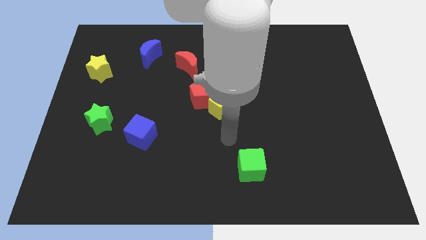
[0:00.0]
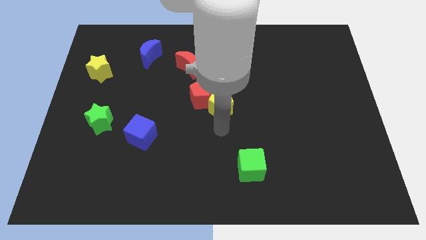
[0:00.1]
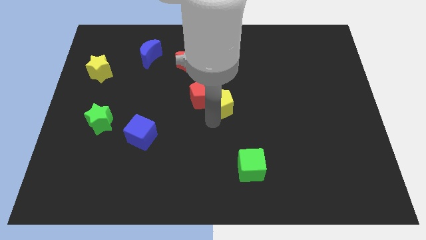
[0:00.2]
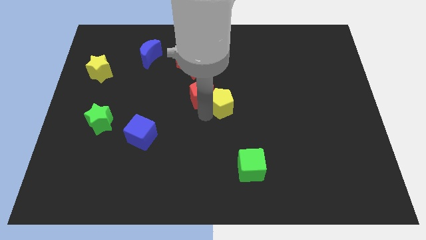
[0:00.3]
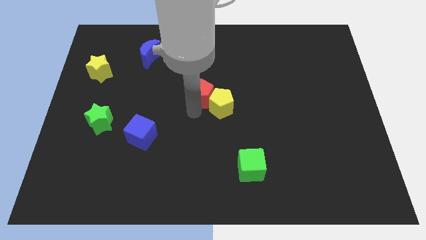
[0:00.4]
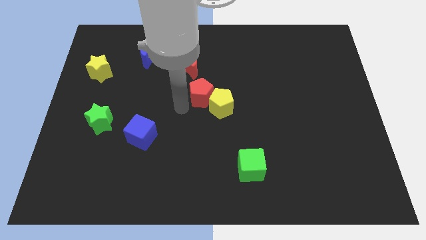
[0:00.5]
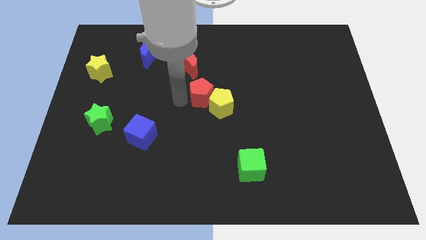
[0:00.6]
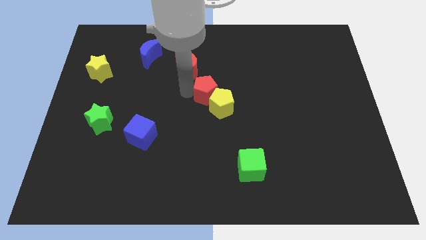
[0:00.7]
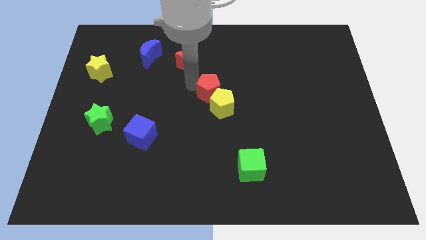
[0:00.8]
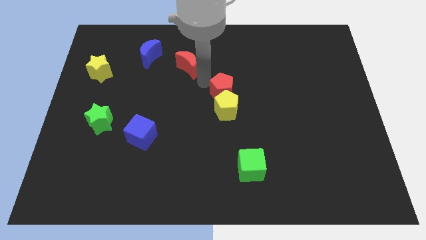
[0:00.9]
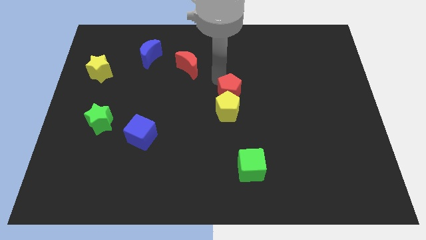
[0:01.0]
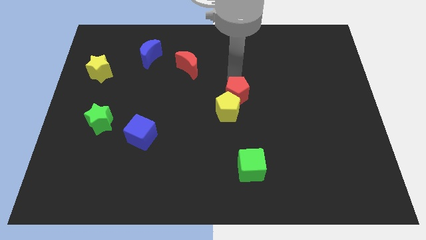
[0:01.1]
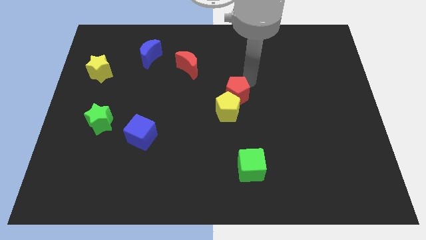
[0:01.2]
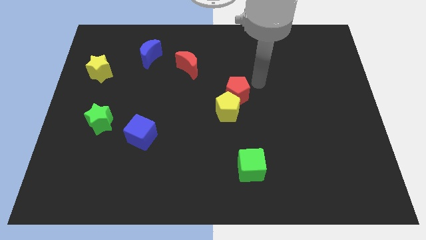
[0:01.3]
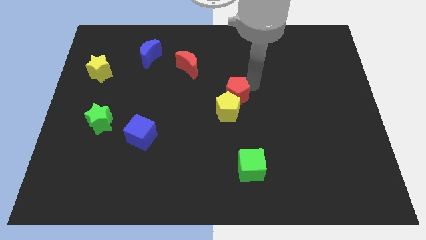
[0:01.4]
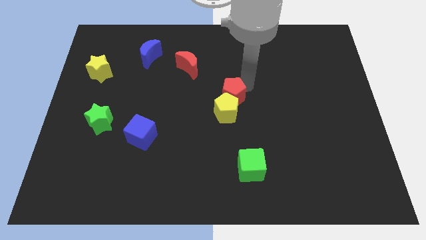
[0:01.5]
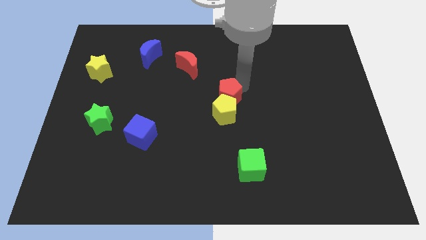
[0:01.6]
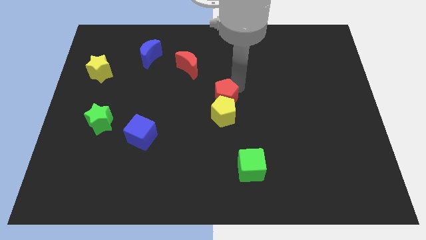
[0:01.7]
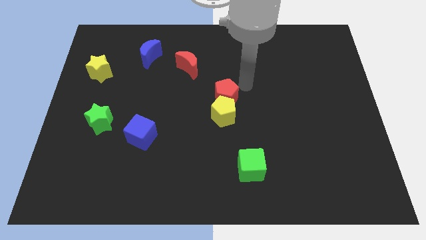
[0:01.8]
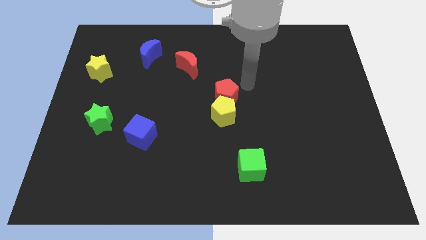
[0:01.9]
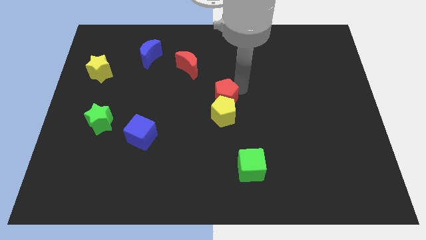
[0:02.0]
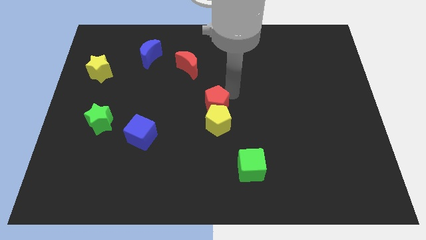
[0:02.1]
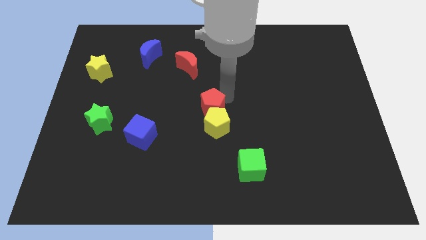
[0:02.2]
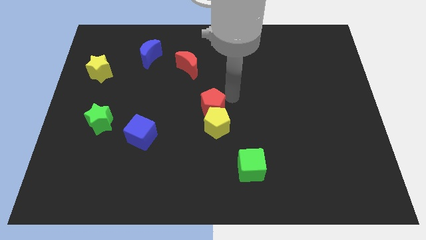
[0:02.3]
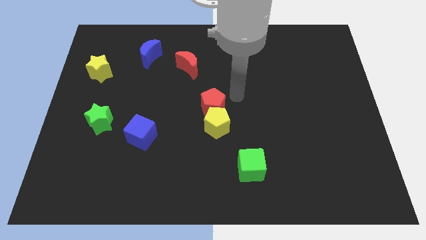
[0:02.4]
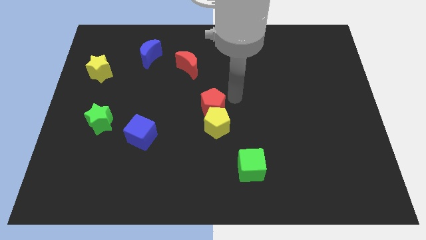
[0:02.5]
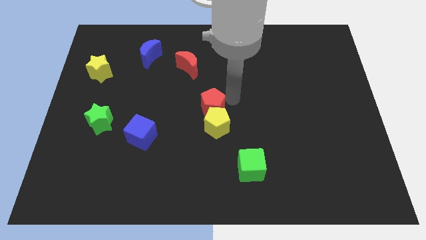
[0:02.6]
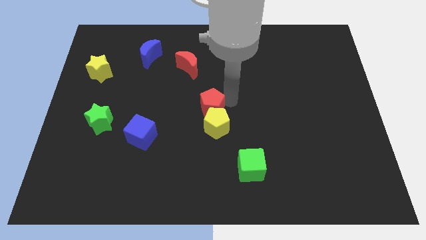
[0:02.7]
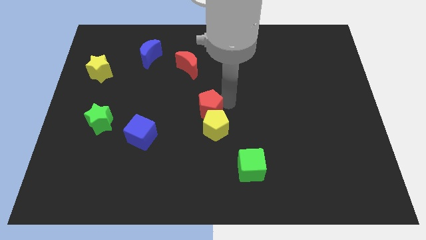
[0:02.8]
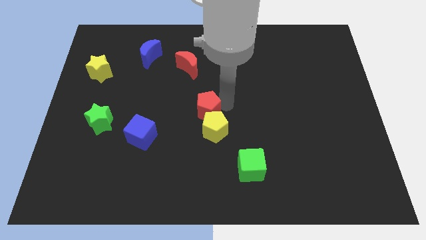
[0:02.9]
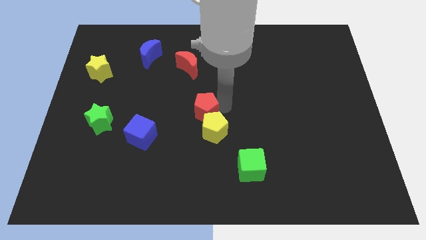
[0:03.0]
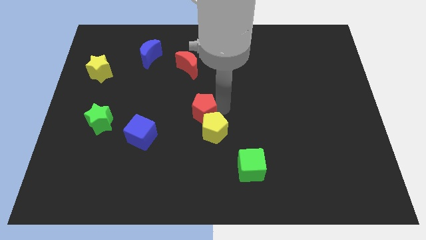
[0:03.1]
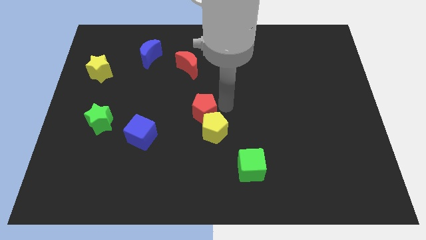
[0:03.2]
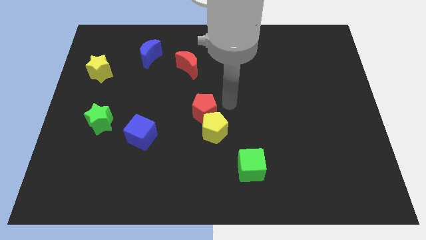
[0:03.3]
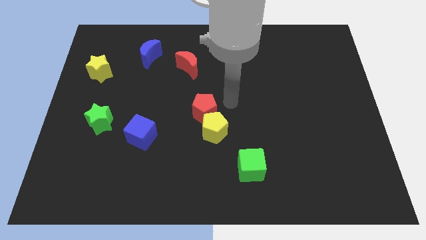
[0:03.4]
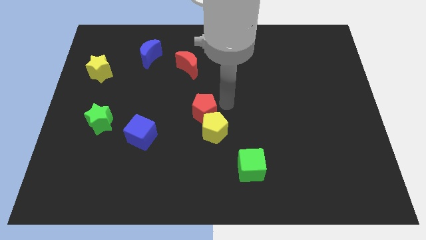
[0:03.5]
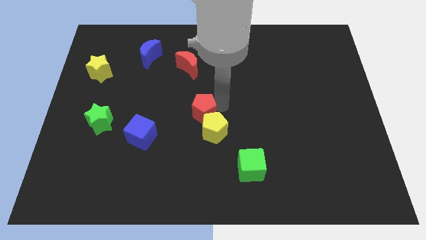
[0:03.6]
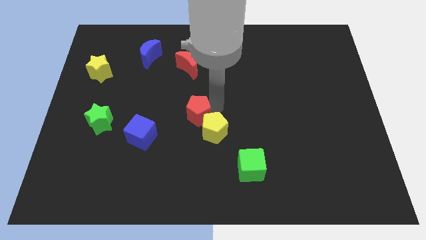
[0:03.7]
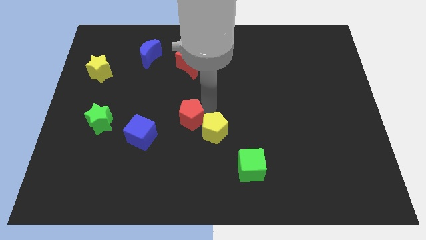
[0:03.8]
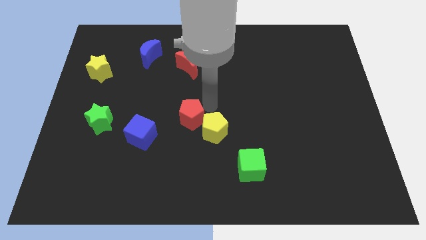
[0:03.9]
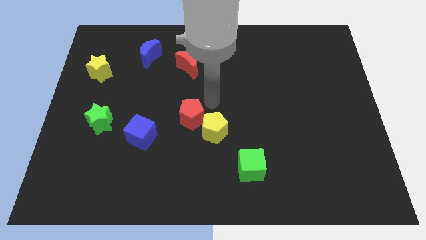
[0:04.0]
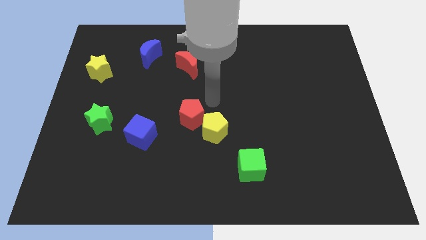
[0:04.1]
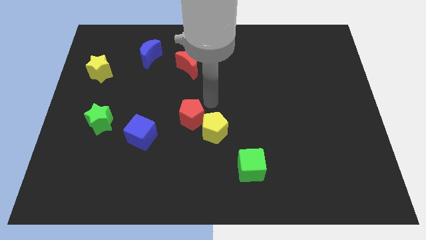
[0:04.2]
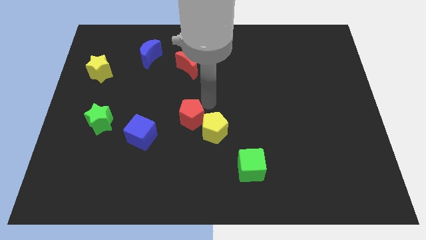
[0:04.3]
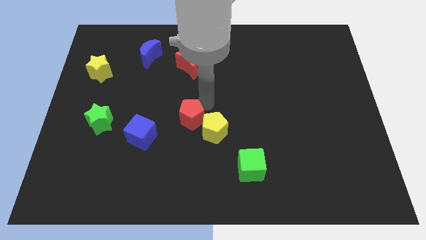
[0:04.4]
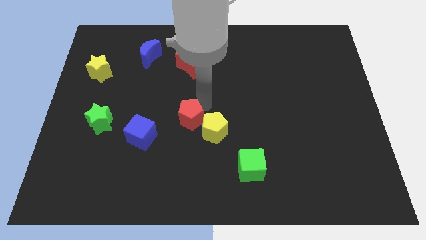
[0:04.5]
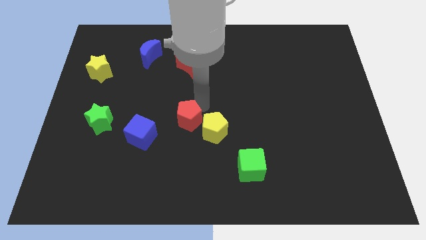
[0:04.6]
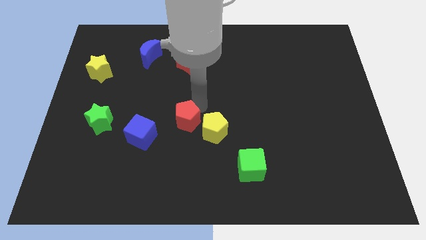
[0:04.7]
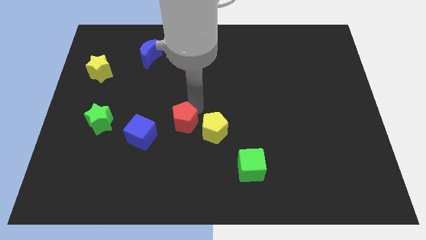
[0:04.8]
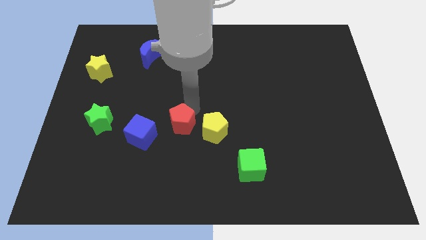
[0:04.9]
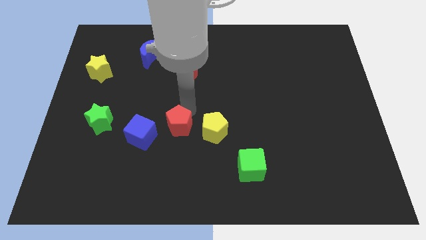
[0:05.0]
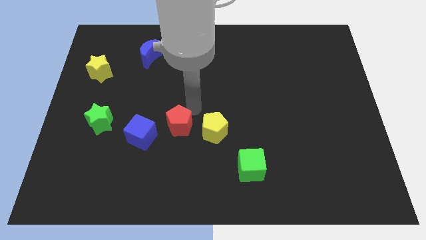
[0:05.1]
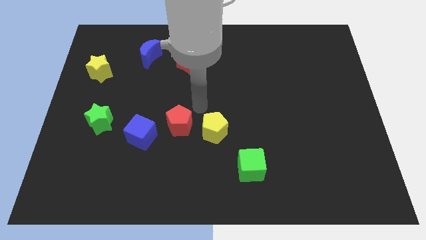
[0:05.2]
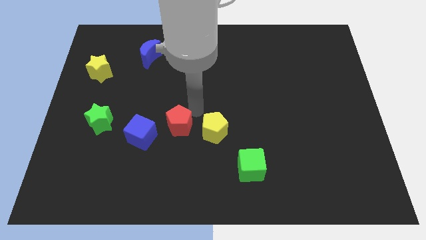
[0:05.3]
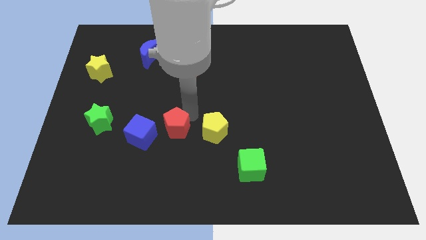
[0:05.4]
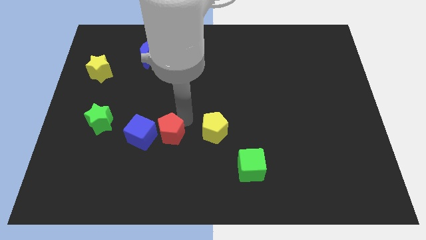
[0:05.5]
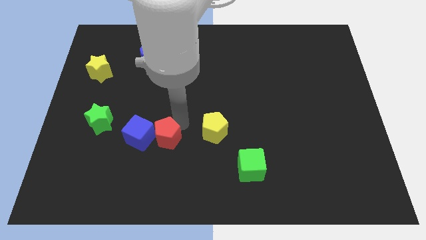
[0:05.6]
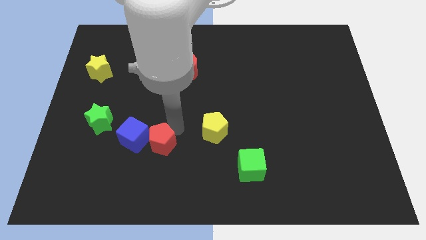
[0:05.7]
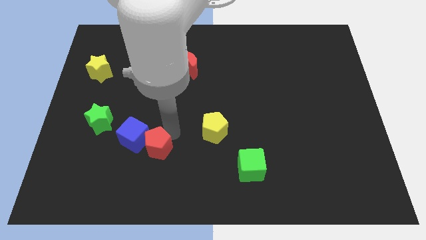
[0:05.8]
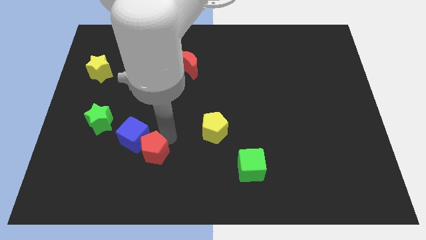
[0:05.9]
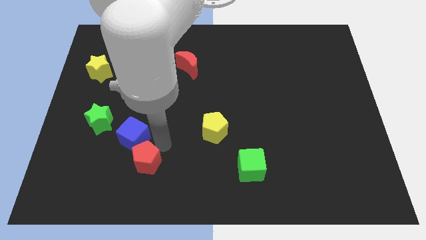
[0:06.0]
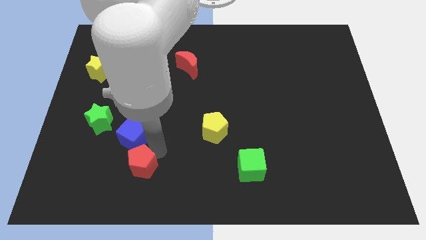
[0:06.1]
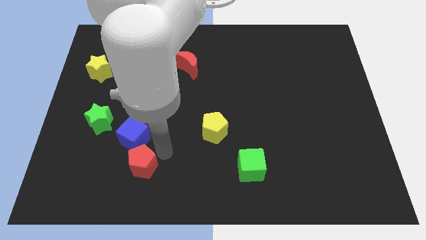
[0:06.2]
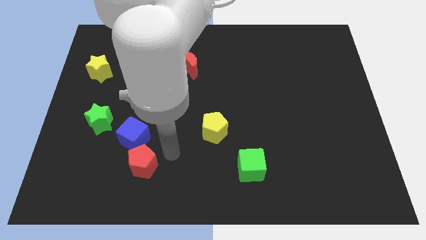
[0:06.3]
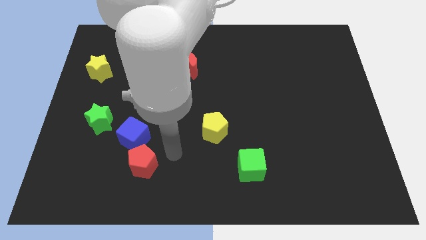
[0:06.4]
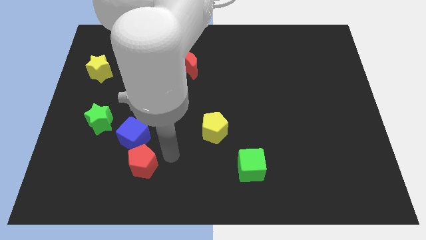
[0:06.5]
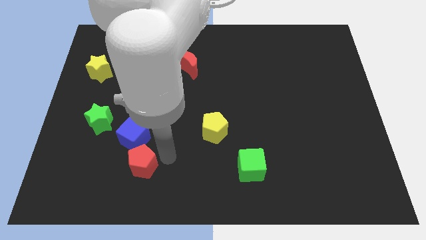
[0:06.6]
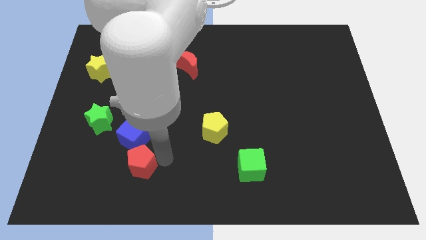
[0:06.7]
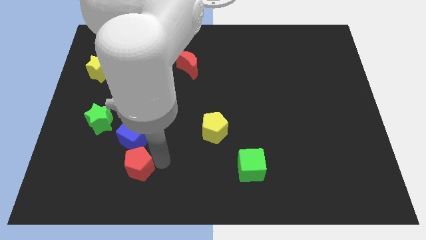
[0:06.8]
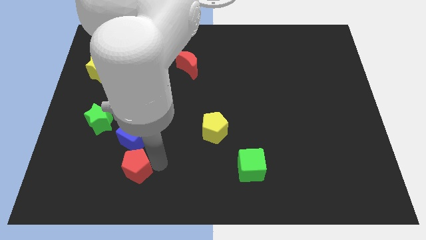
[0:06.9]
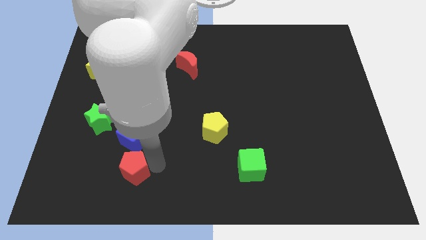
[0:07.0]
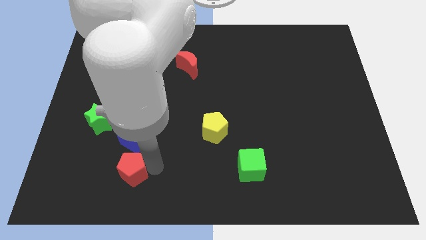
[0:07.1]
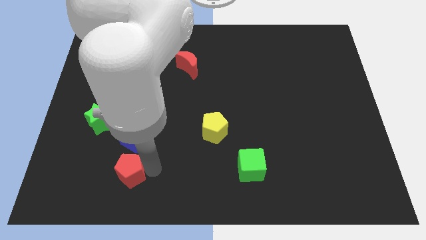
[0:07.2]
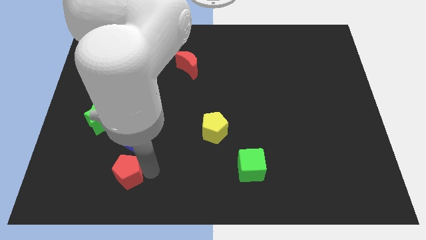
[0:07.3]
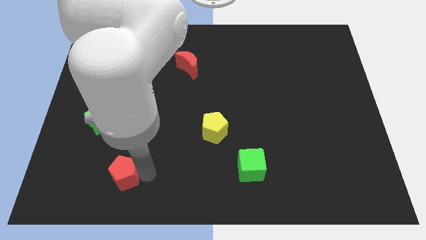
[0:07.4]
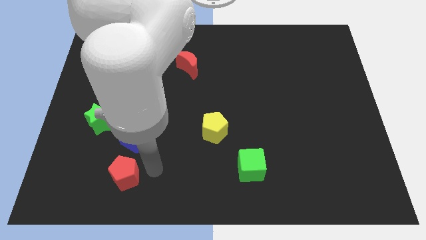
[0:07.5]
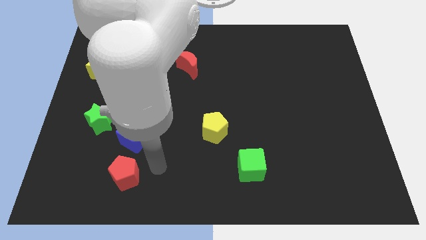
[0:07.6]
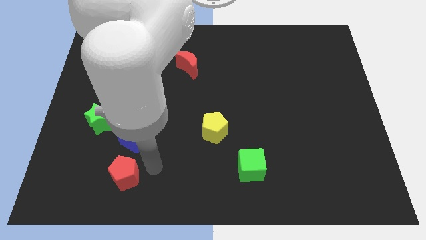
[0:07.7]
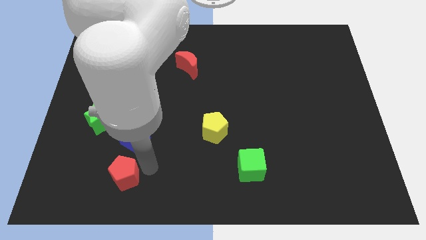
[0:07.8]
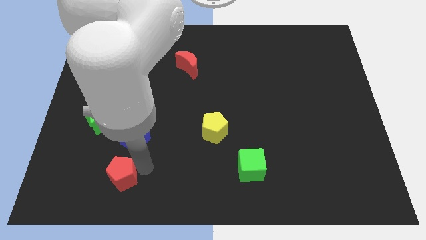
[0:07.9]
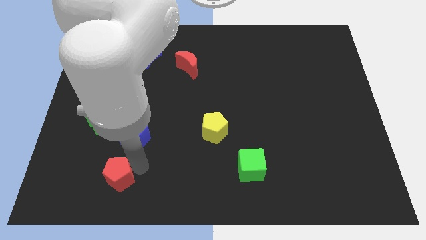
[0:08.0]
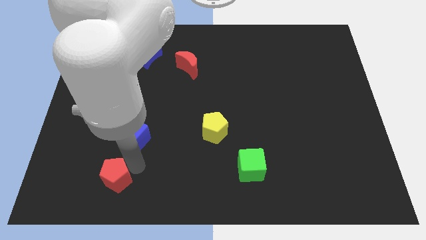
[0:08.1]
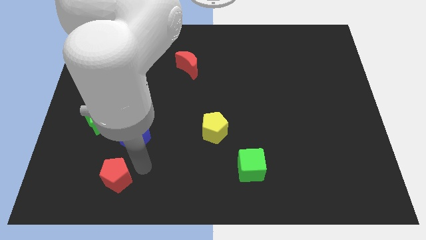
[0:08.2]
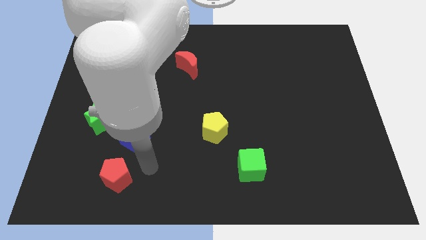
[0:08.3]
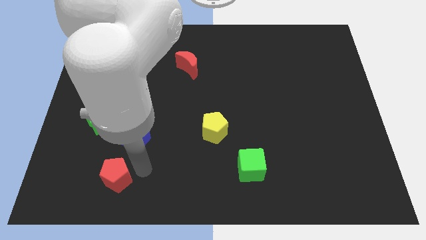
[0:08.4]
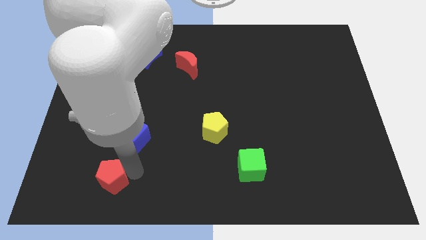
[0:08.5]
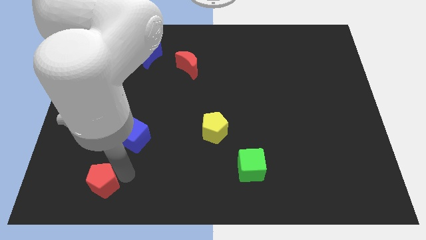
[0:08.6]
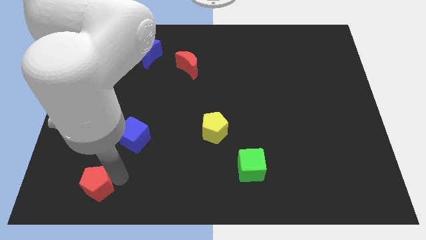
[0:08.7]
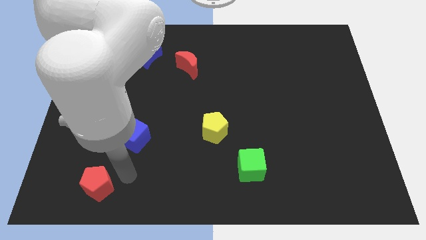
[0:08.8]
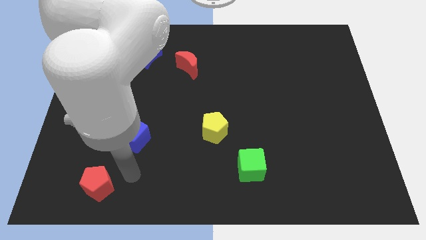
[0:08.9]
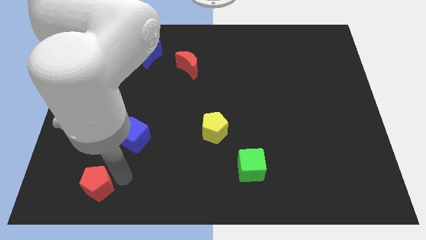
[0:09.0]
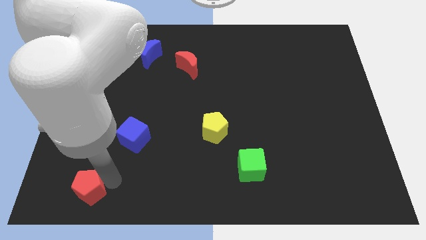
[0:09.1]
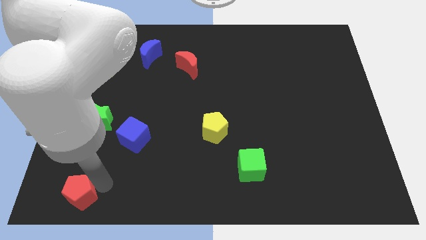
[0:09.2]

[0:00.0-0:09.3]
push the red pentagon to the bottom left
